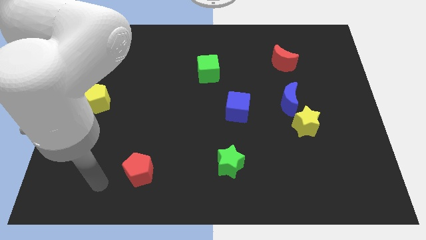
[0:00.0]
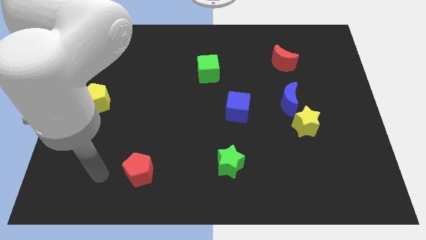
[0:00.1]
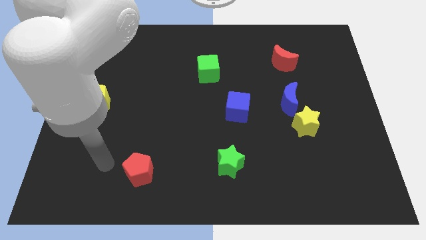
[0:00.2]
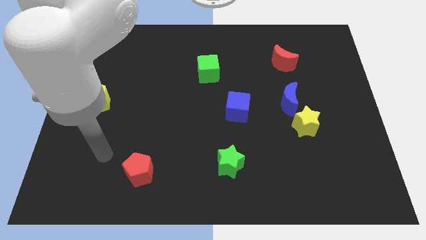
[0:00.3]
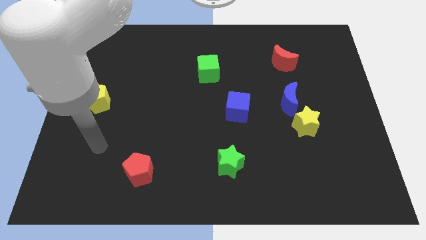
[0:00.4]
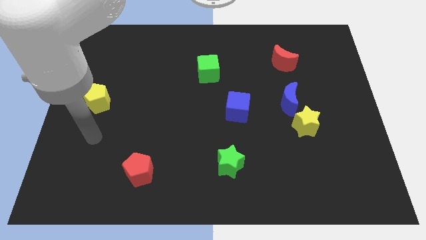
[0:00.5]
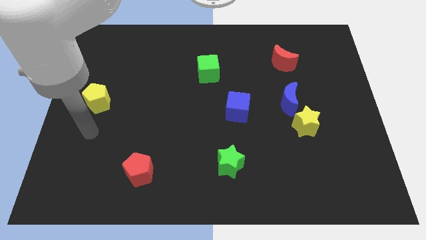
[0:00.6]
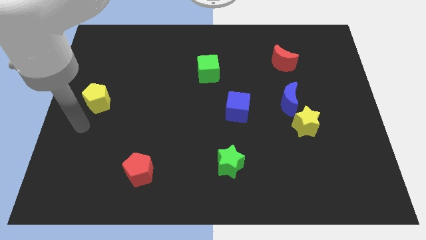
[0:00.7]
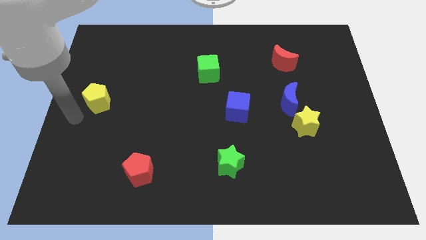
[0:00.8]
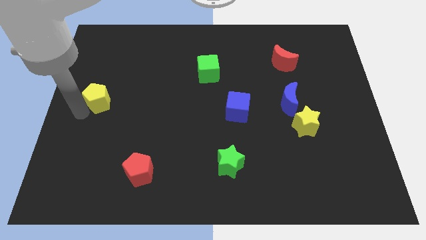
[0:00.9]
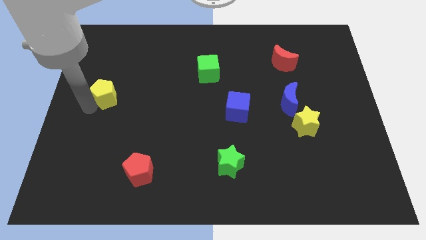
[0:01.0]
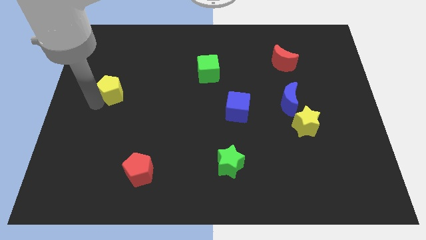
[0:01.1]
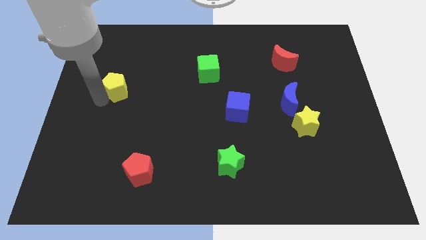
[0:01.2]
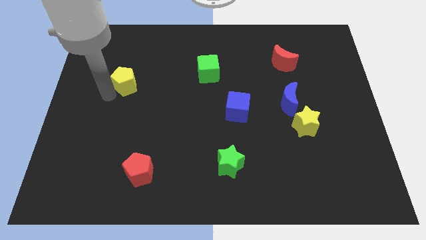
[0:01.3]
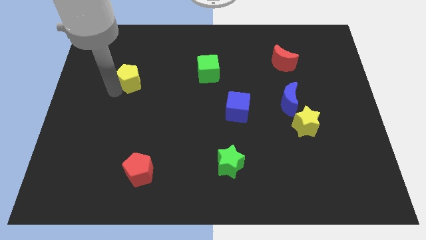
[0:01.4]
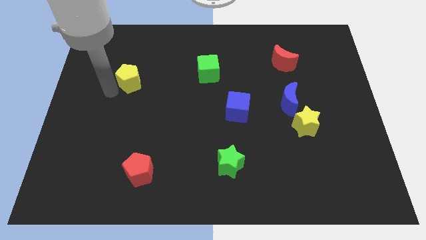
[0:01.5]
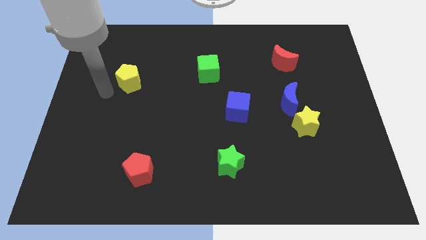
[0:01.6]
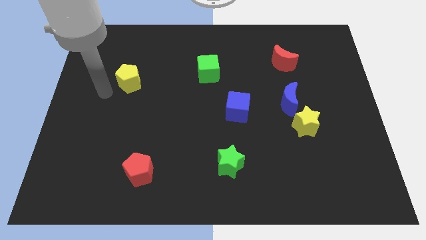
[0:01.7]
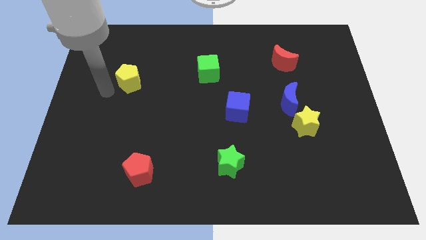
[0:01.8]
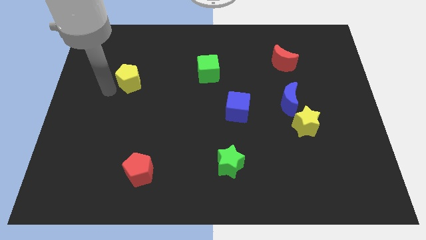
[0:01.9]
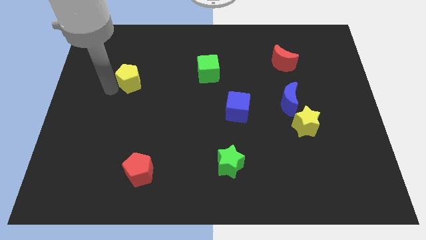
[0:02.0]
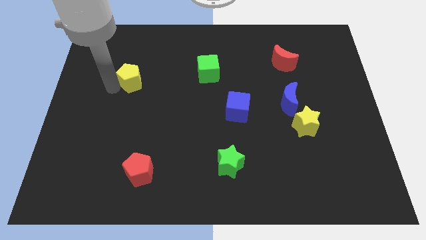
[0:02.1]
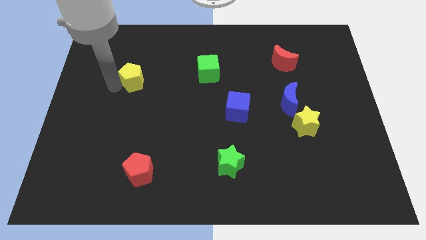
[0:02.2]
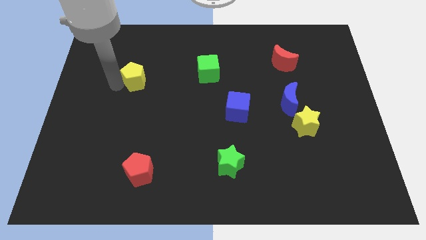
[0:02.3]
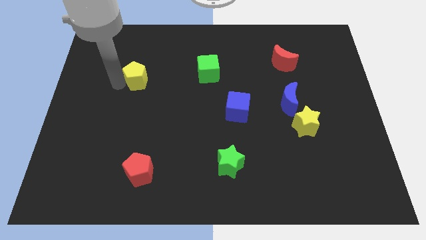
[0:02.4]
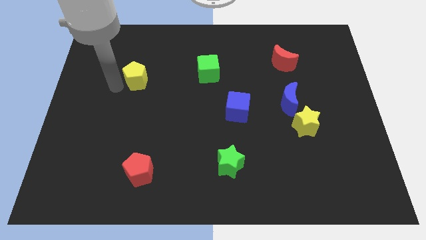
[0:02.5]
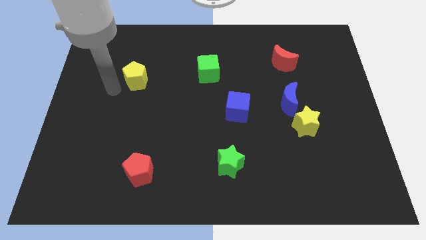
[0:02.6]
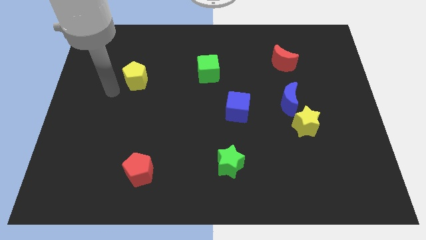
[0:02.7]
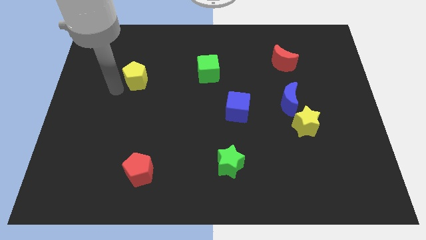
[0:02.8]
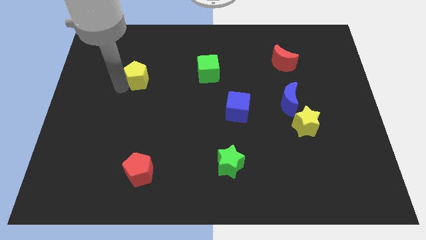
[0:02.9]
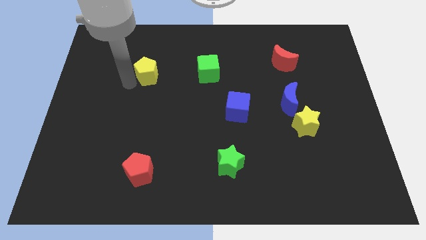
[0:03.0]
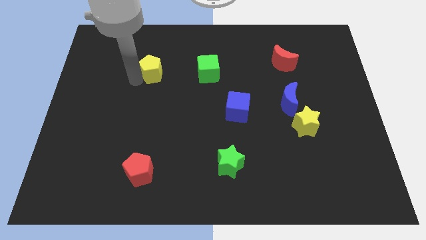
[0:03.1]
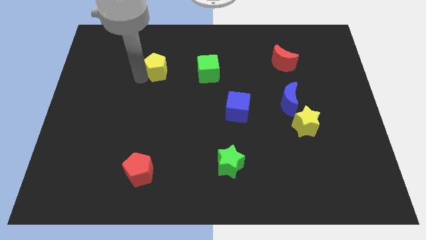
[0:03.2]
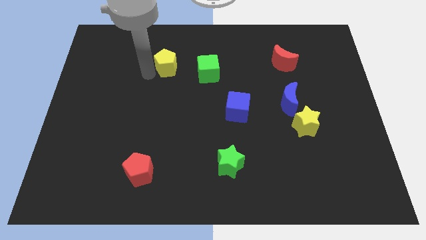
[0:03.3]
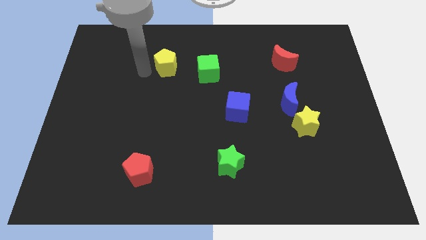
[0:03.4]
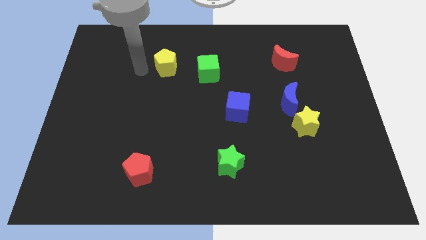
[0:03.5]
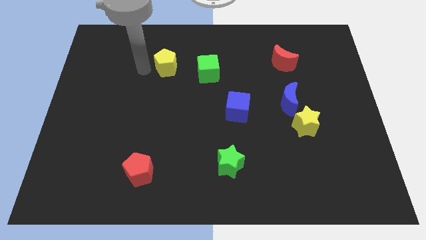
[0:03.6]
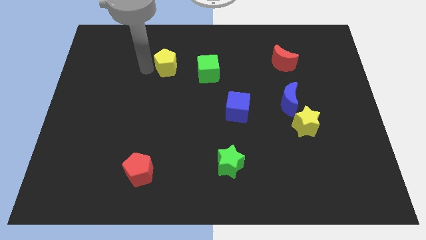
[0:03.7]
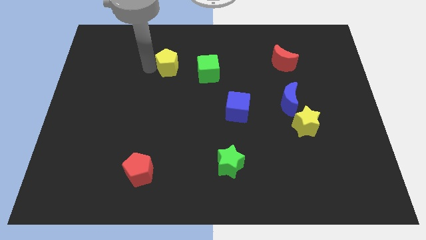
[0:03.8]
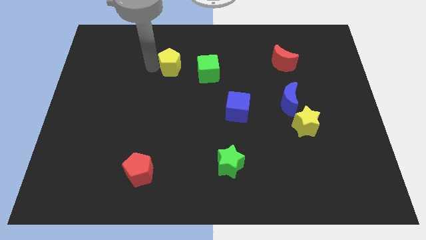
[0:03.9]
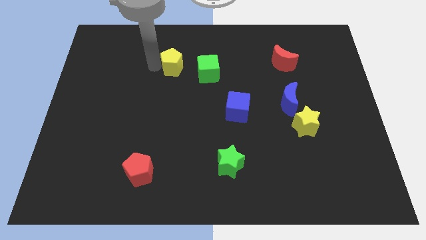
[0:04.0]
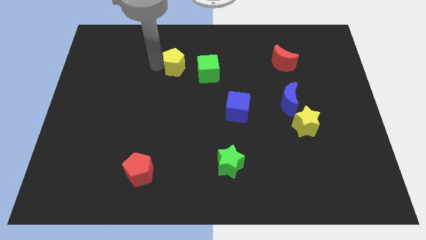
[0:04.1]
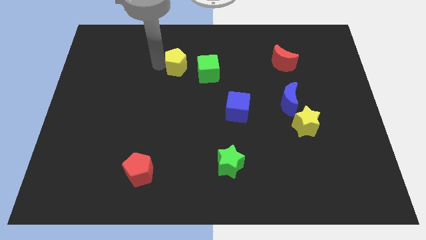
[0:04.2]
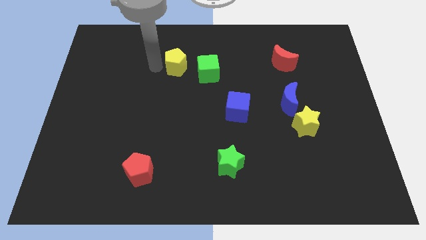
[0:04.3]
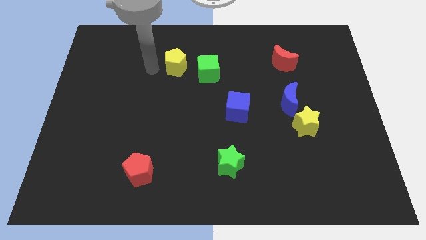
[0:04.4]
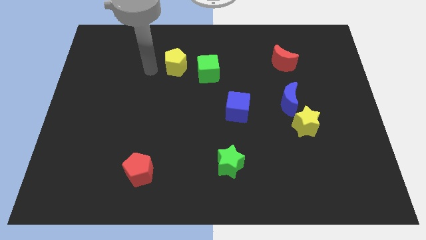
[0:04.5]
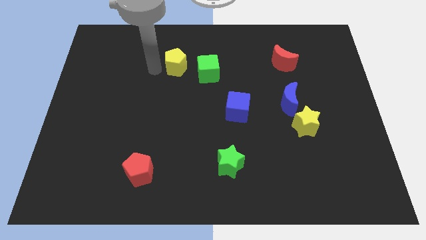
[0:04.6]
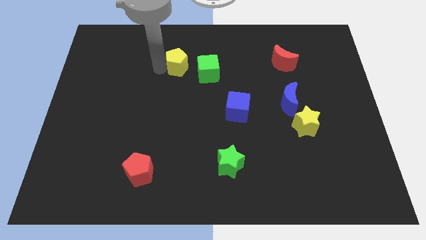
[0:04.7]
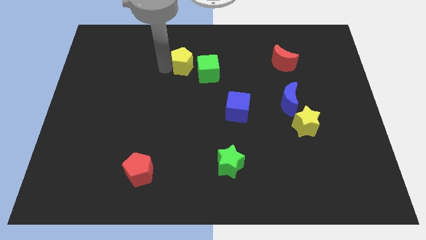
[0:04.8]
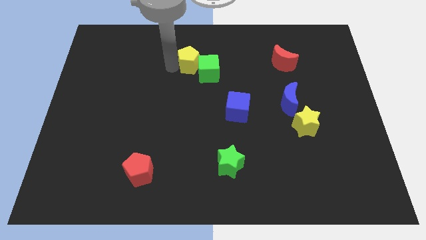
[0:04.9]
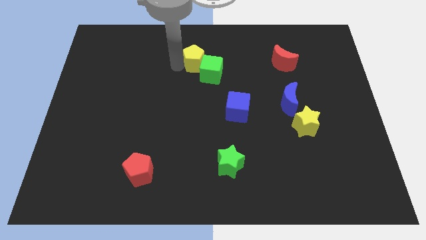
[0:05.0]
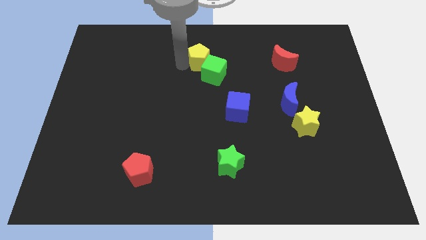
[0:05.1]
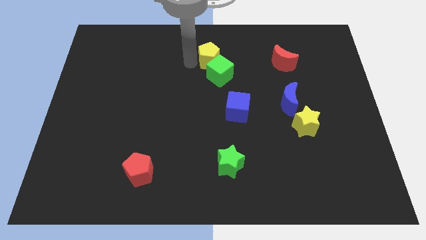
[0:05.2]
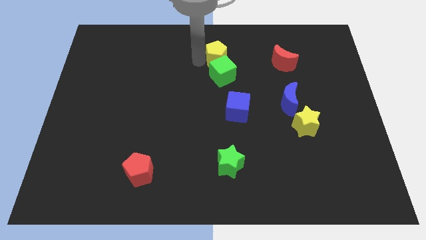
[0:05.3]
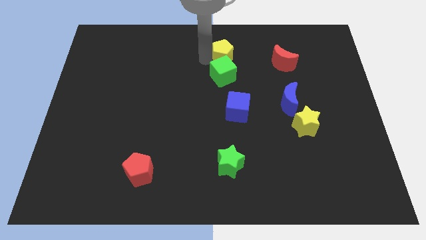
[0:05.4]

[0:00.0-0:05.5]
put the yellow pentagon diagonally up and to the right of the green cube
